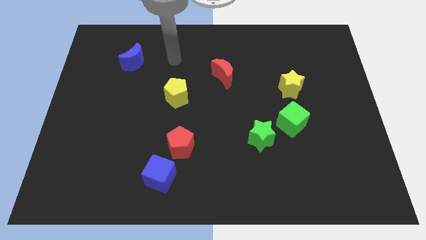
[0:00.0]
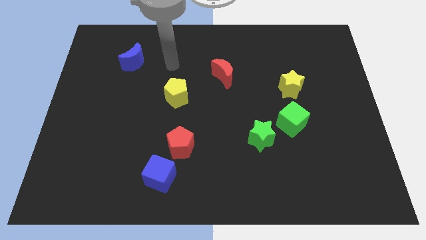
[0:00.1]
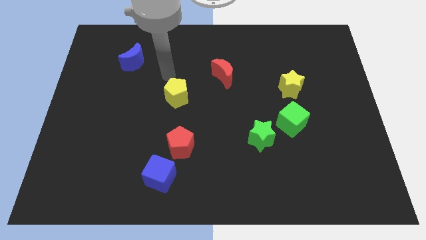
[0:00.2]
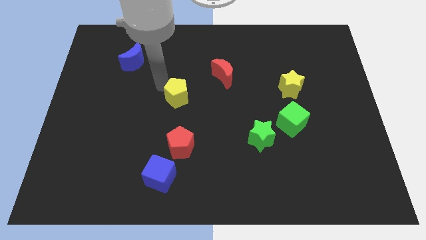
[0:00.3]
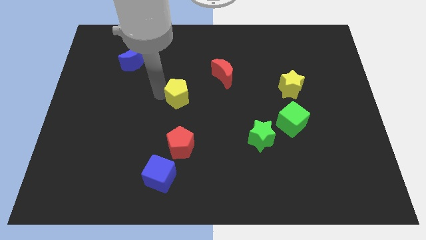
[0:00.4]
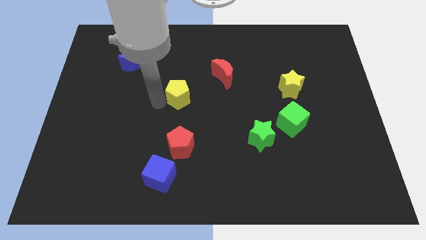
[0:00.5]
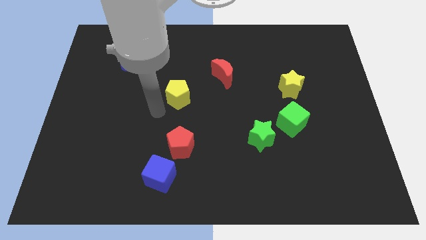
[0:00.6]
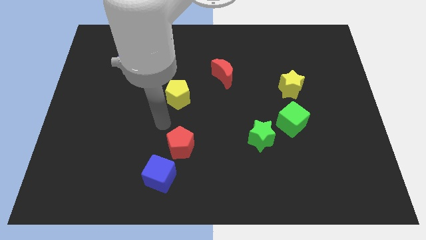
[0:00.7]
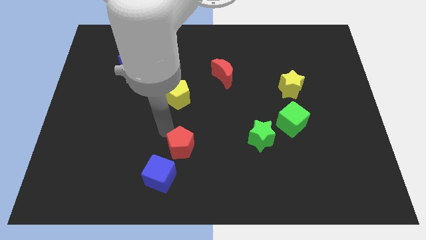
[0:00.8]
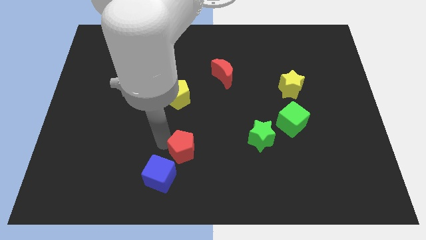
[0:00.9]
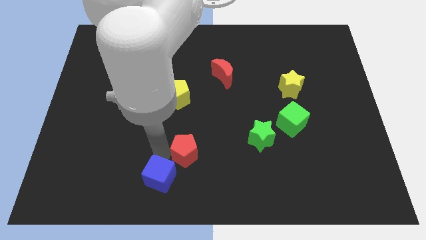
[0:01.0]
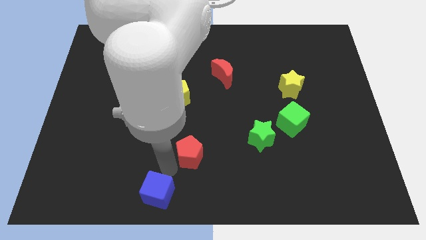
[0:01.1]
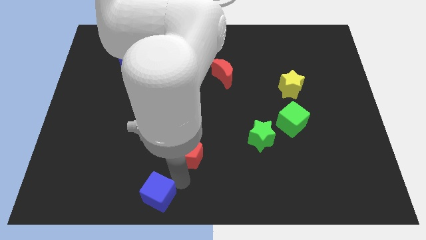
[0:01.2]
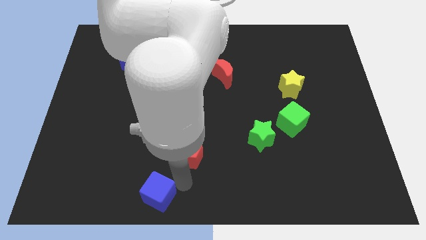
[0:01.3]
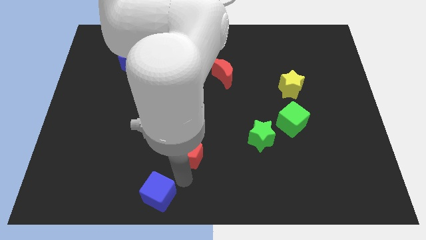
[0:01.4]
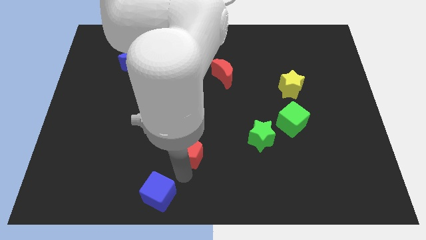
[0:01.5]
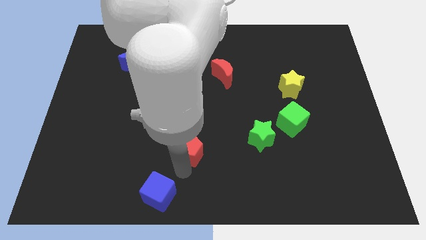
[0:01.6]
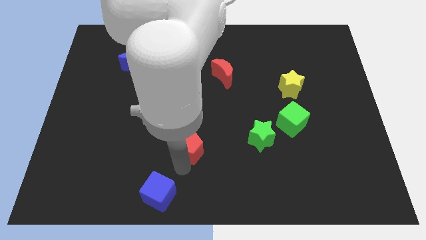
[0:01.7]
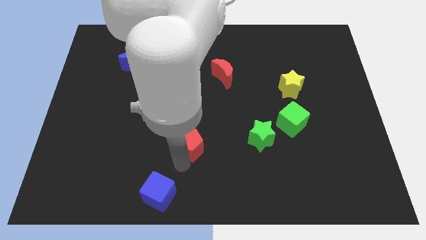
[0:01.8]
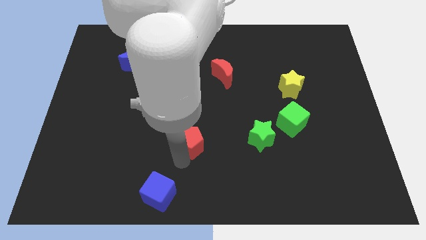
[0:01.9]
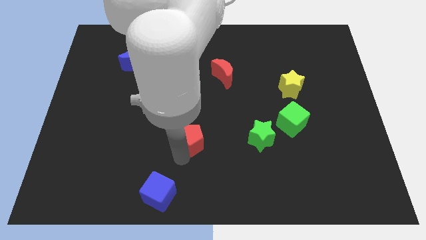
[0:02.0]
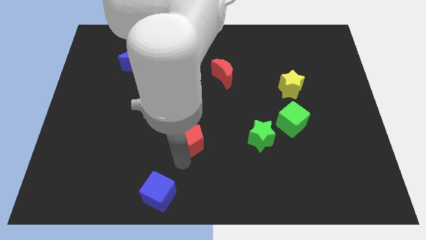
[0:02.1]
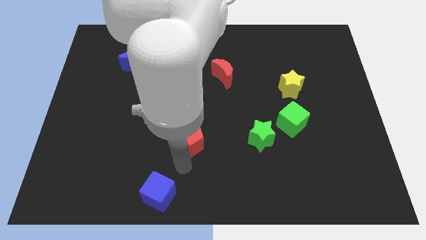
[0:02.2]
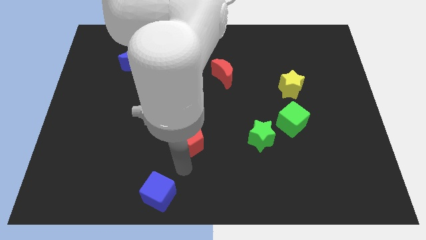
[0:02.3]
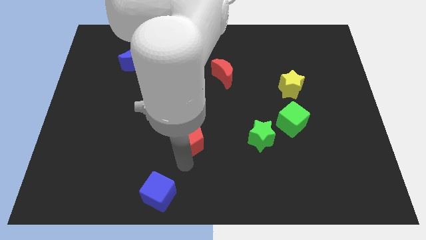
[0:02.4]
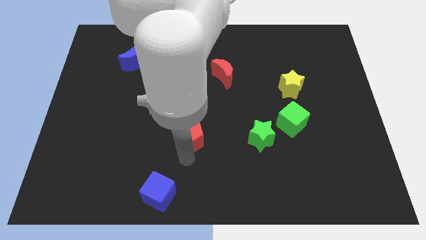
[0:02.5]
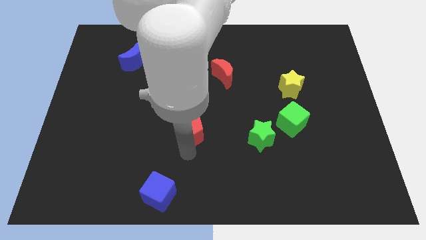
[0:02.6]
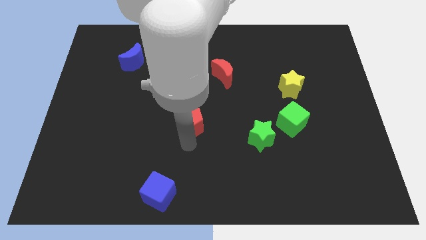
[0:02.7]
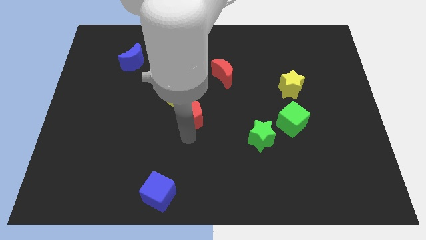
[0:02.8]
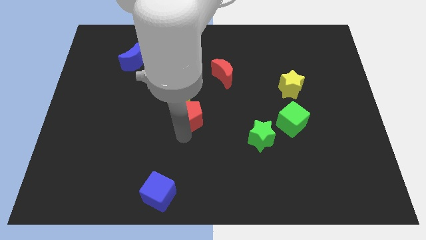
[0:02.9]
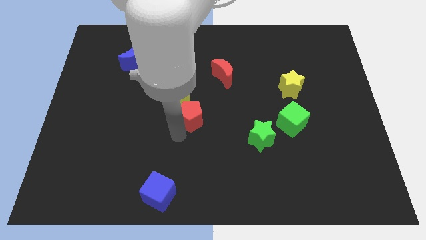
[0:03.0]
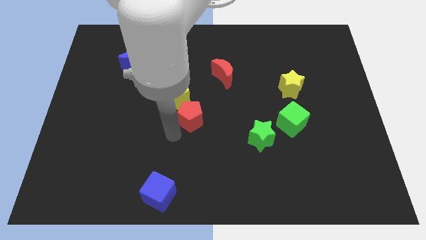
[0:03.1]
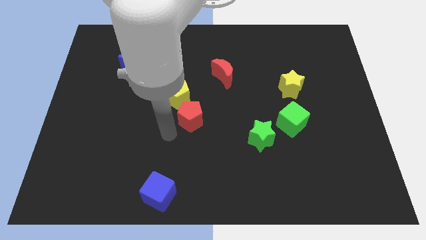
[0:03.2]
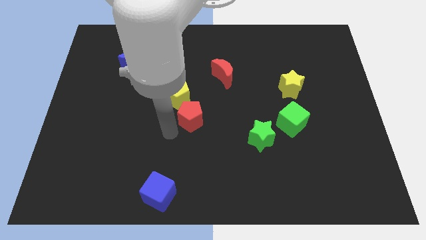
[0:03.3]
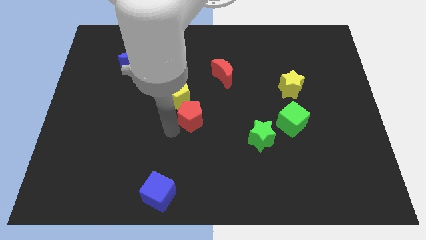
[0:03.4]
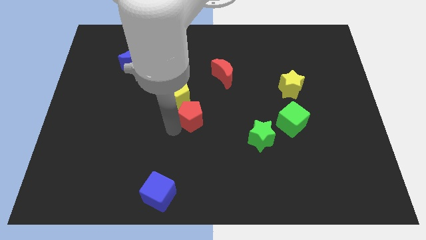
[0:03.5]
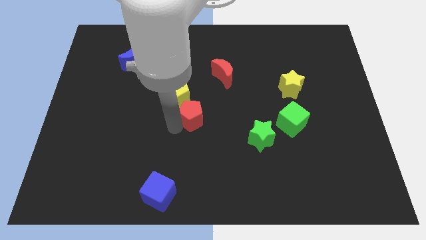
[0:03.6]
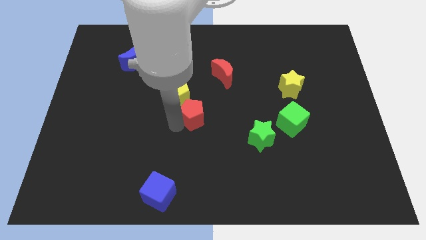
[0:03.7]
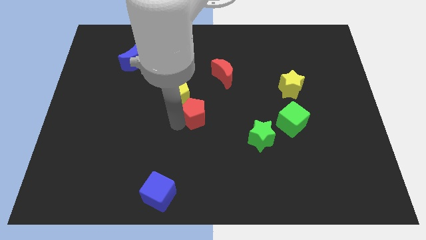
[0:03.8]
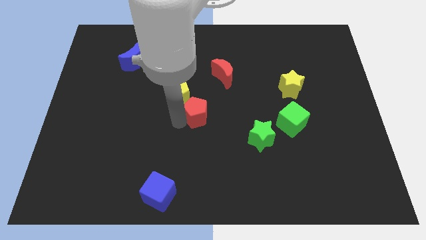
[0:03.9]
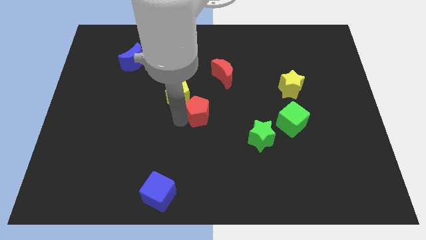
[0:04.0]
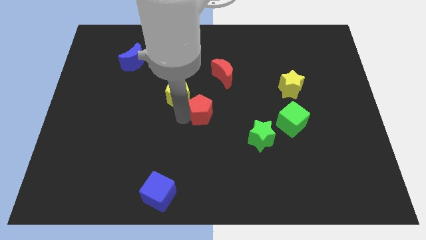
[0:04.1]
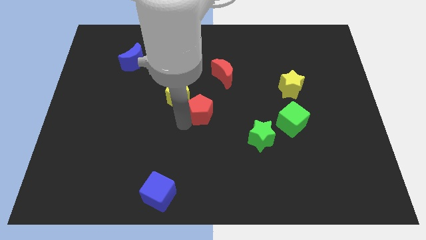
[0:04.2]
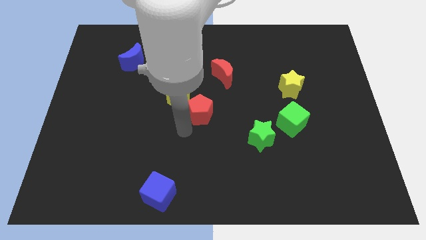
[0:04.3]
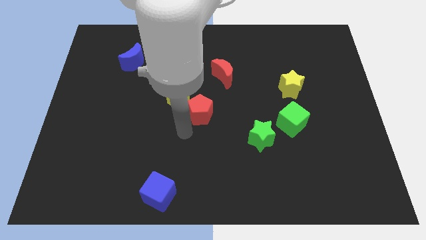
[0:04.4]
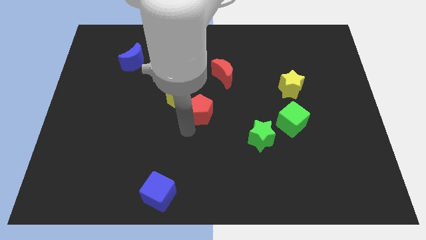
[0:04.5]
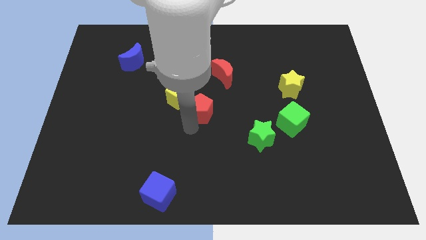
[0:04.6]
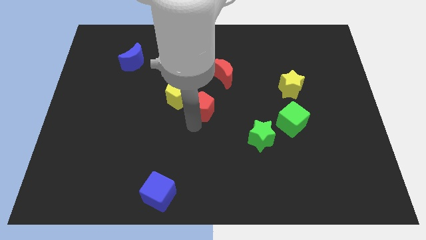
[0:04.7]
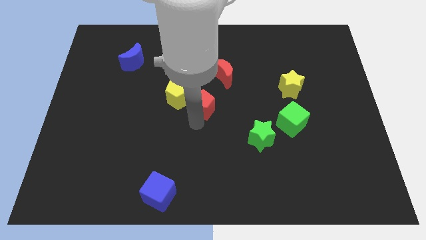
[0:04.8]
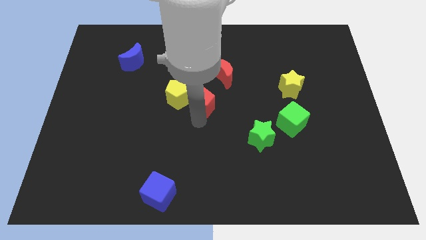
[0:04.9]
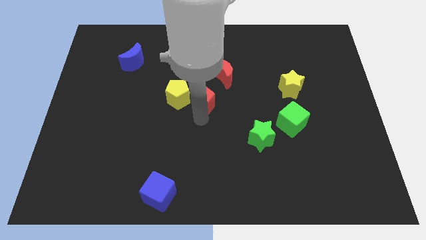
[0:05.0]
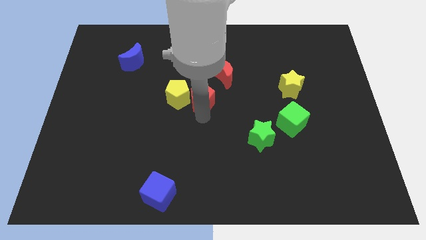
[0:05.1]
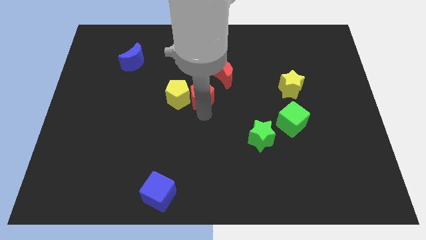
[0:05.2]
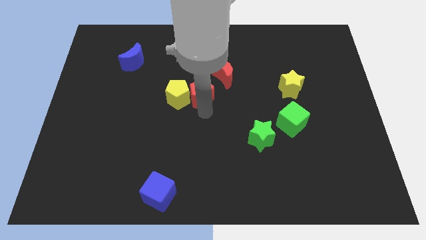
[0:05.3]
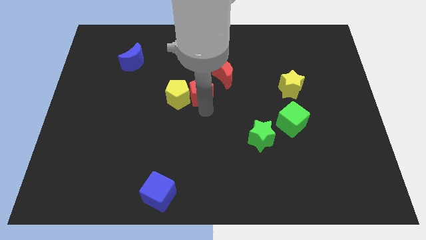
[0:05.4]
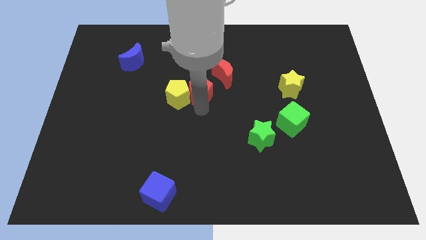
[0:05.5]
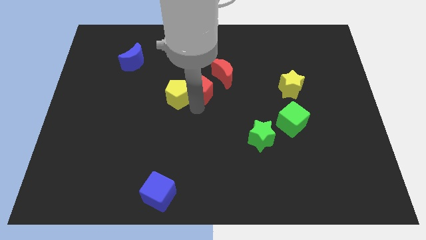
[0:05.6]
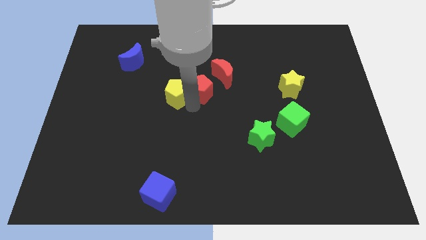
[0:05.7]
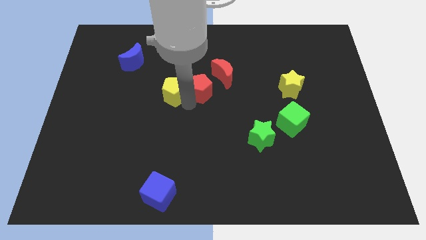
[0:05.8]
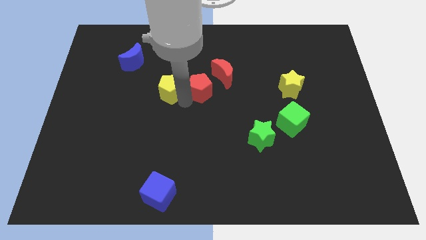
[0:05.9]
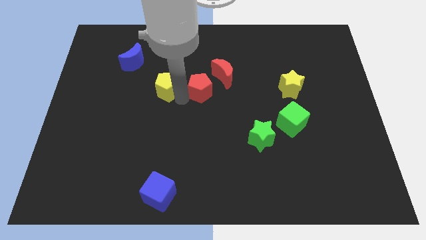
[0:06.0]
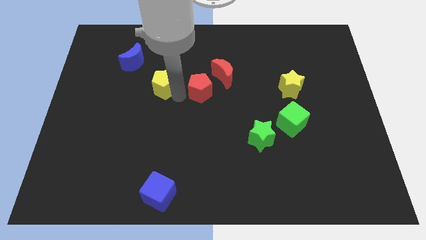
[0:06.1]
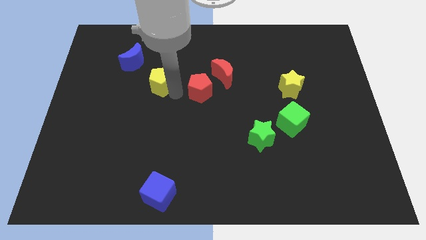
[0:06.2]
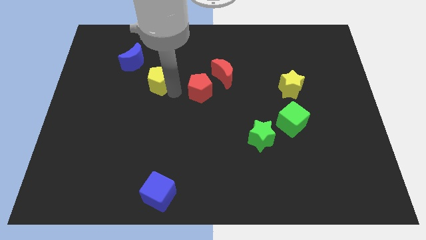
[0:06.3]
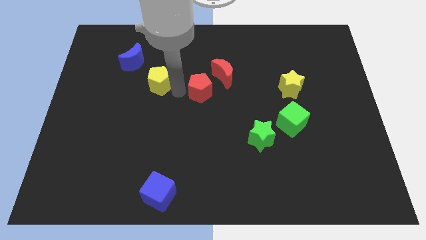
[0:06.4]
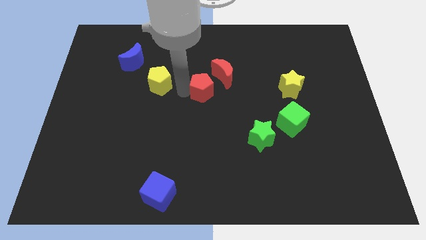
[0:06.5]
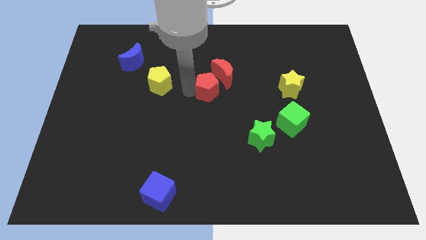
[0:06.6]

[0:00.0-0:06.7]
slide the red pentagon close to the red moon

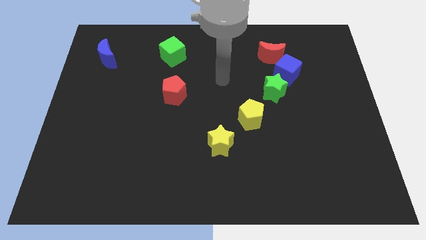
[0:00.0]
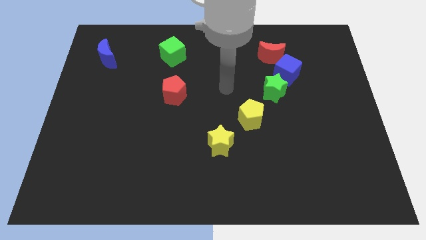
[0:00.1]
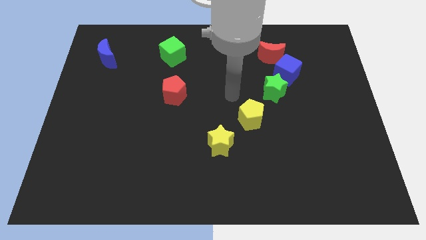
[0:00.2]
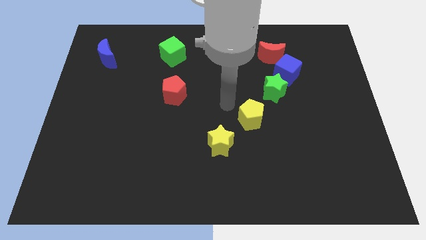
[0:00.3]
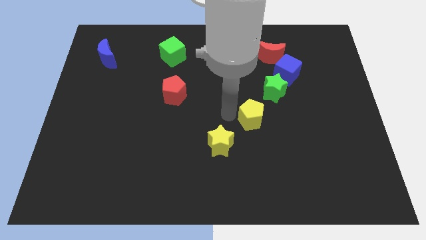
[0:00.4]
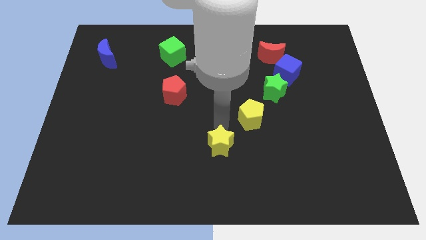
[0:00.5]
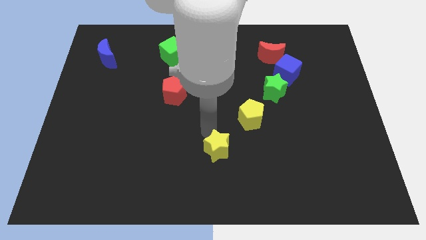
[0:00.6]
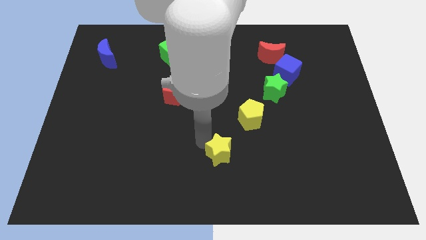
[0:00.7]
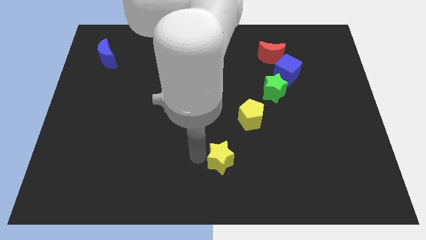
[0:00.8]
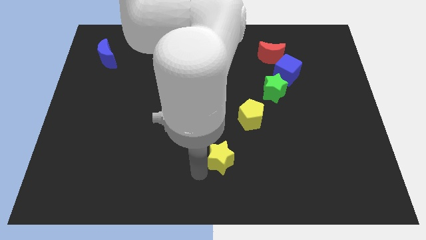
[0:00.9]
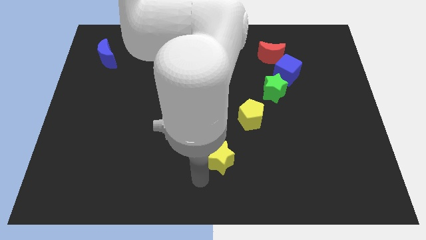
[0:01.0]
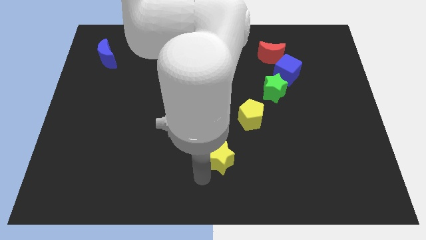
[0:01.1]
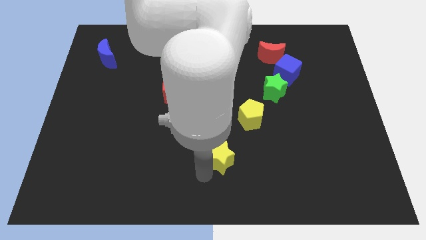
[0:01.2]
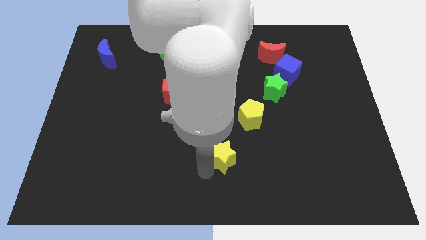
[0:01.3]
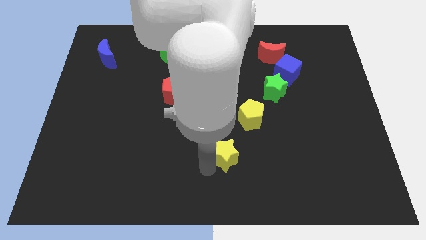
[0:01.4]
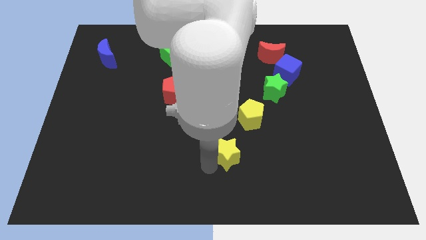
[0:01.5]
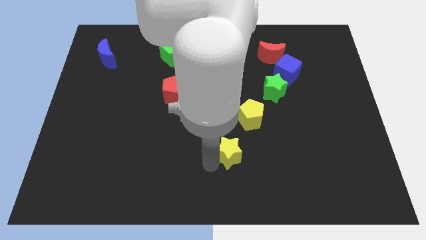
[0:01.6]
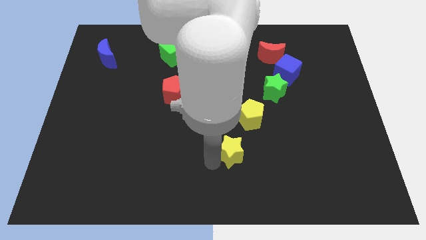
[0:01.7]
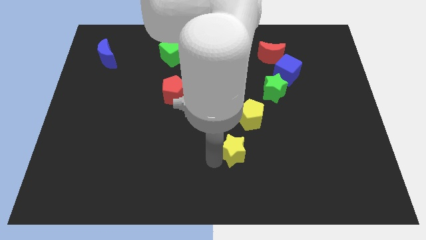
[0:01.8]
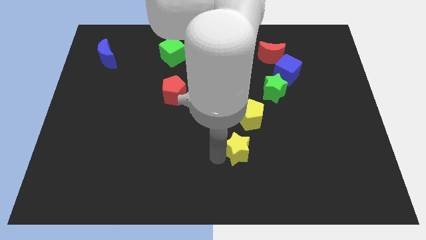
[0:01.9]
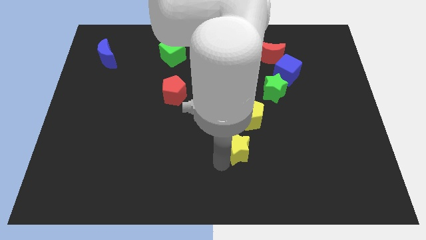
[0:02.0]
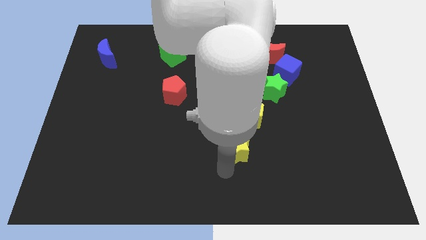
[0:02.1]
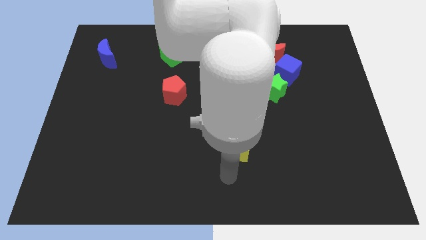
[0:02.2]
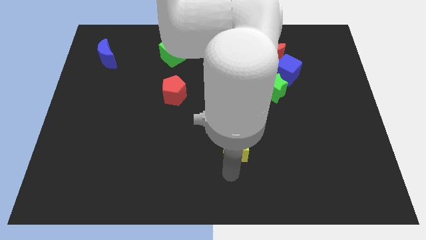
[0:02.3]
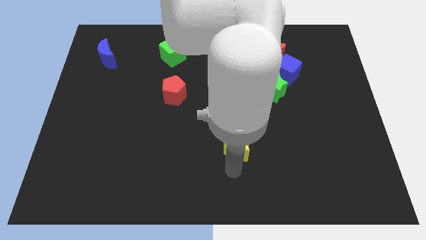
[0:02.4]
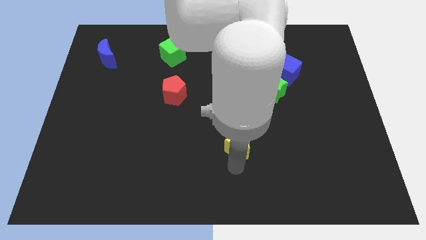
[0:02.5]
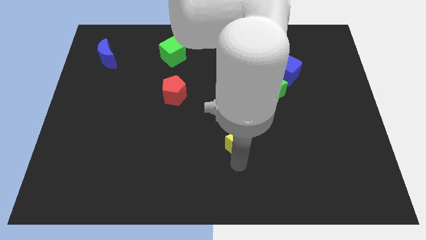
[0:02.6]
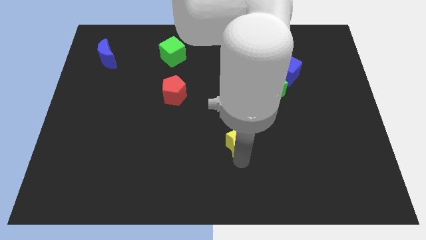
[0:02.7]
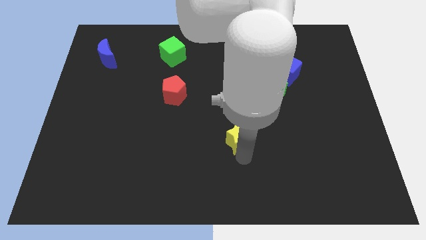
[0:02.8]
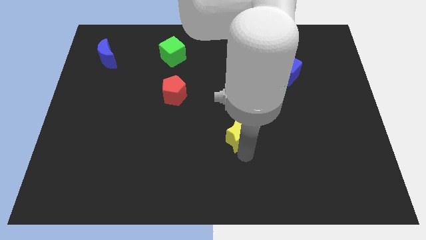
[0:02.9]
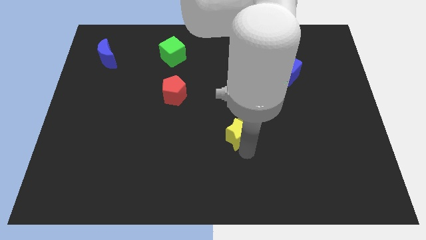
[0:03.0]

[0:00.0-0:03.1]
slide the yellow star towards the yellow pentagon
